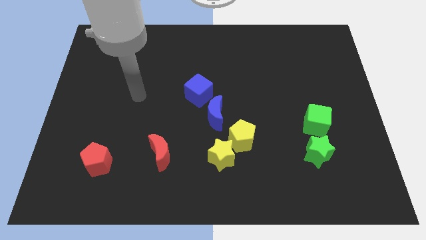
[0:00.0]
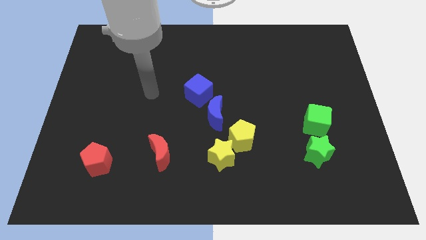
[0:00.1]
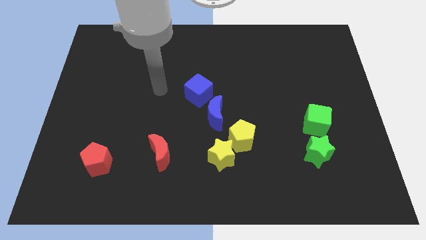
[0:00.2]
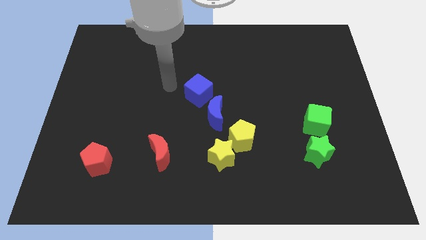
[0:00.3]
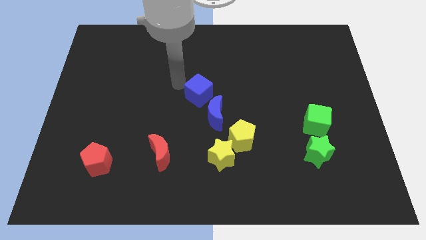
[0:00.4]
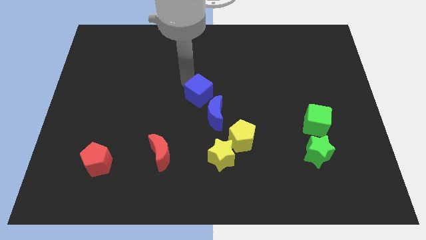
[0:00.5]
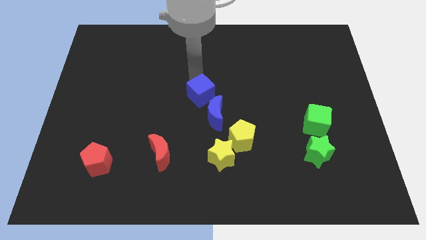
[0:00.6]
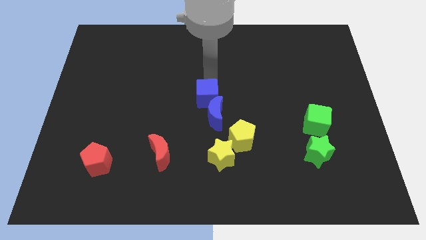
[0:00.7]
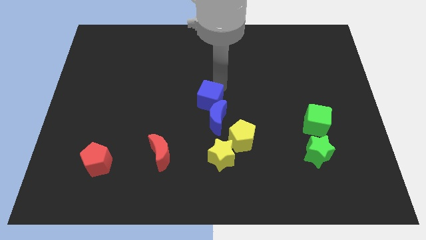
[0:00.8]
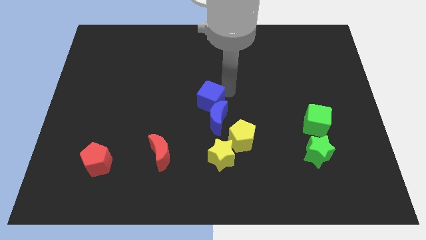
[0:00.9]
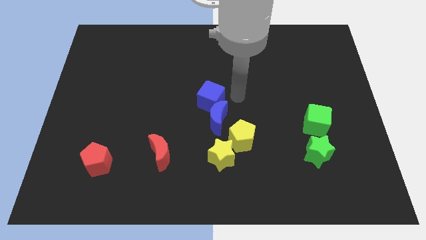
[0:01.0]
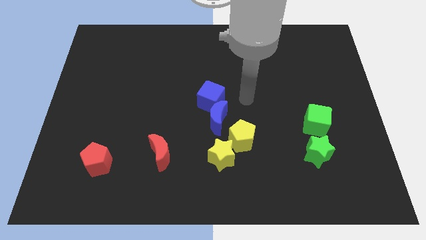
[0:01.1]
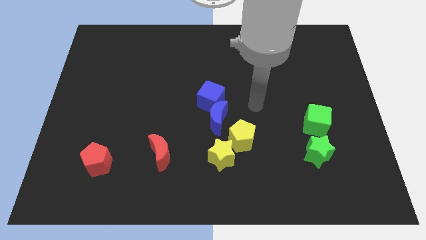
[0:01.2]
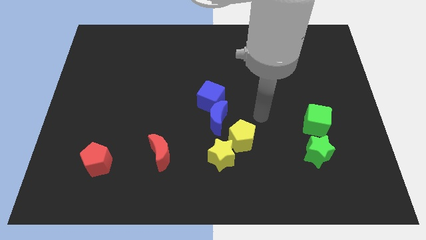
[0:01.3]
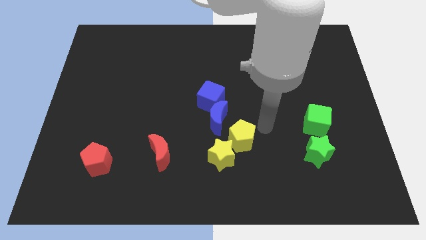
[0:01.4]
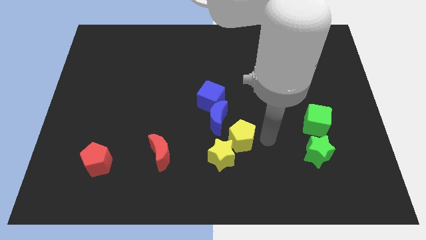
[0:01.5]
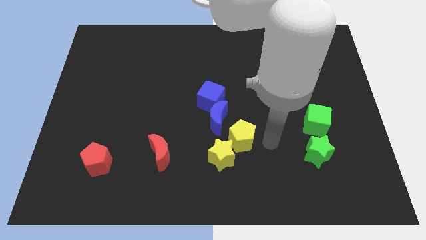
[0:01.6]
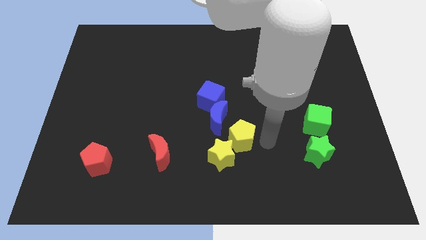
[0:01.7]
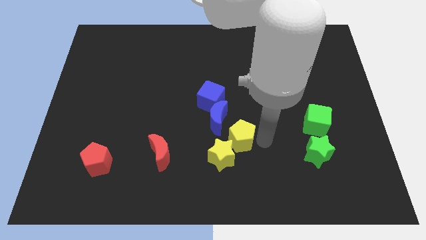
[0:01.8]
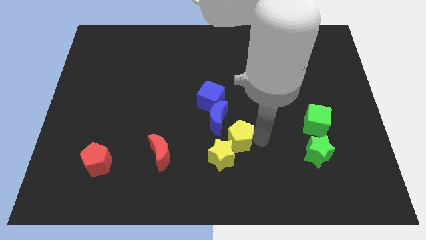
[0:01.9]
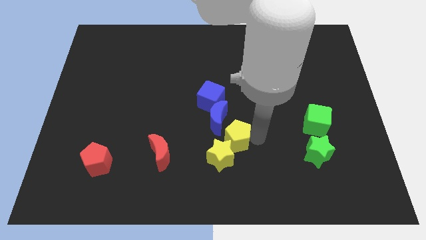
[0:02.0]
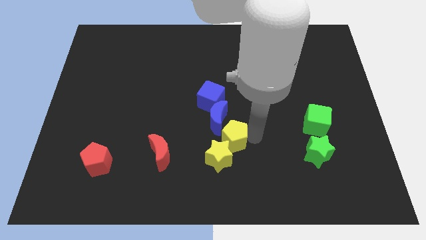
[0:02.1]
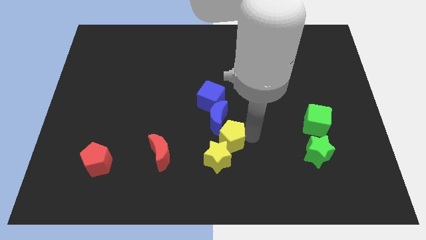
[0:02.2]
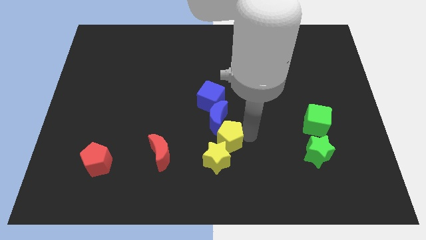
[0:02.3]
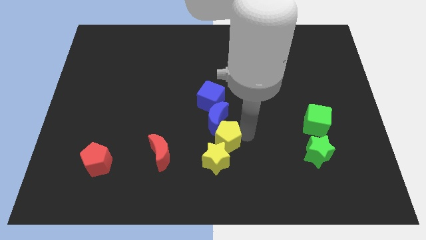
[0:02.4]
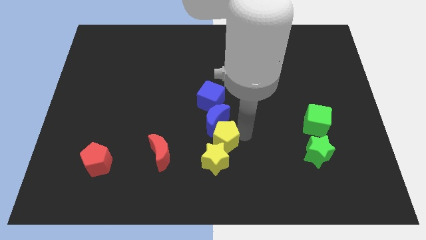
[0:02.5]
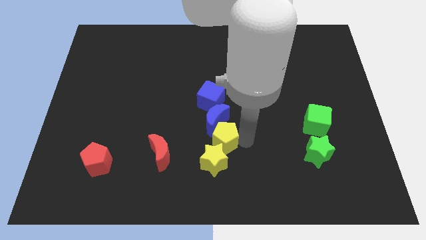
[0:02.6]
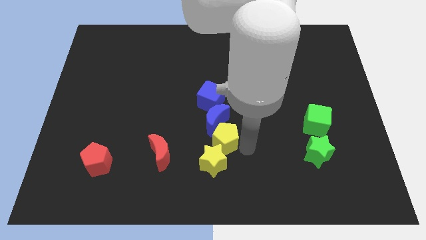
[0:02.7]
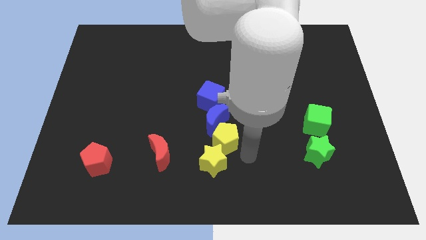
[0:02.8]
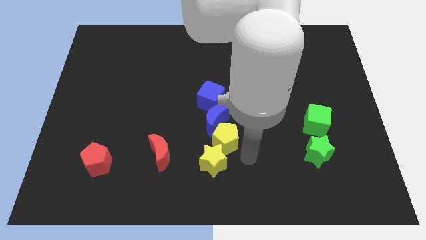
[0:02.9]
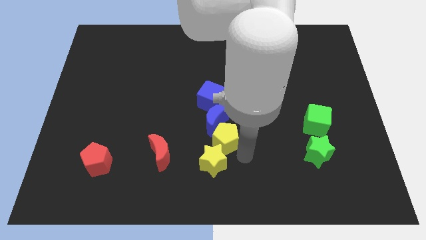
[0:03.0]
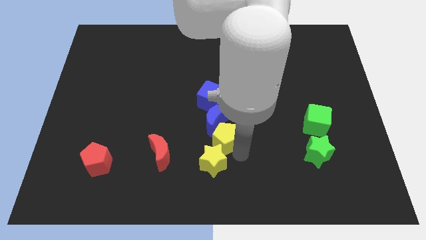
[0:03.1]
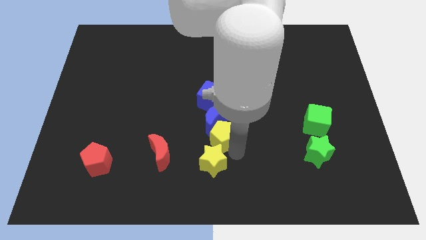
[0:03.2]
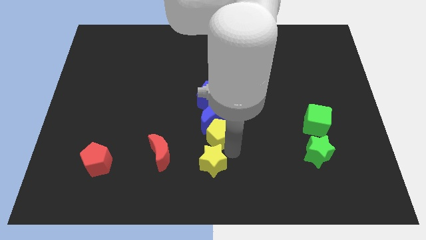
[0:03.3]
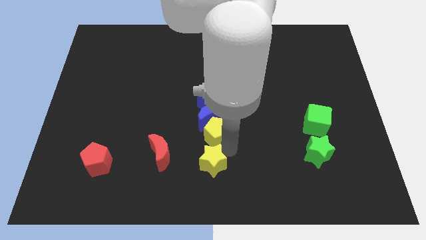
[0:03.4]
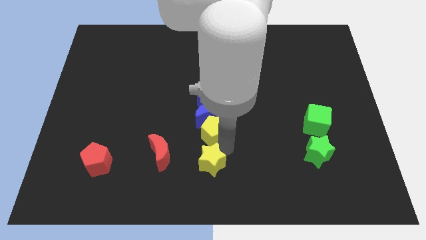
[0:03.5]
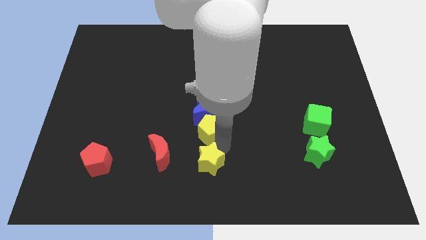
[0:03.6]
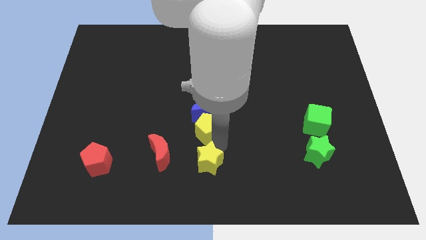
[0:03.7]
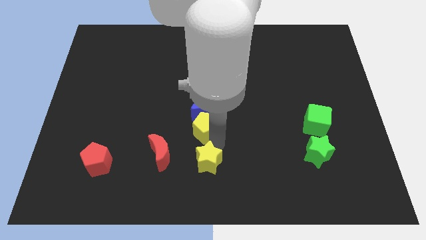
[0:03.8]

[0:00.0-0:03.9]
slide the yellow pentagon slightly upwards and to the left diagonally

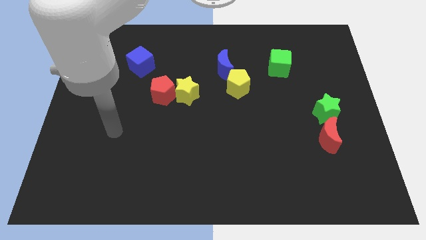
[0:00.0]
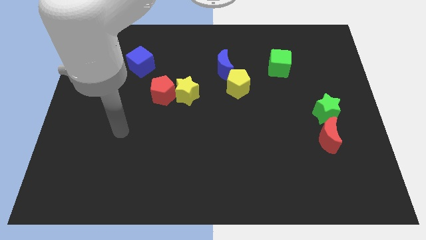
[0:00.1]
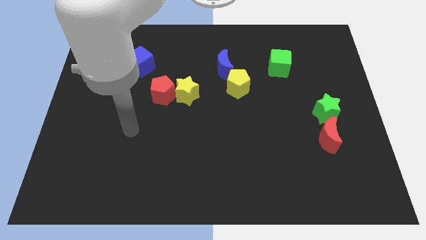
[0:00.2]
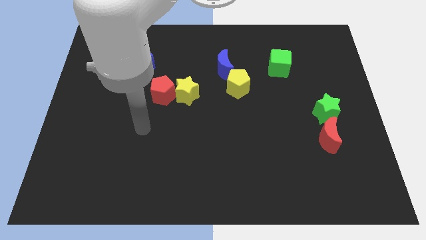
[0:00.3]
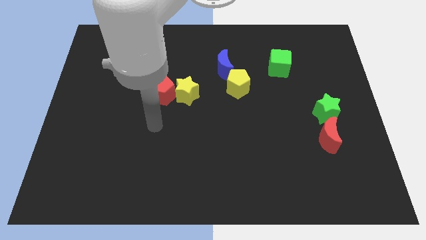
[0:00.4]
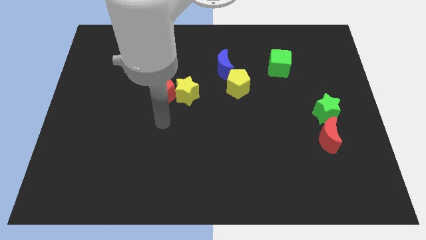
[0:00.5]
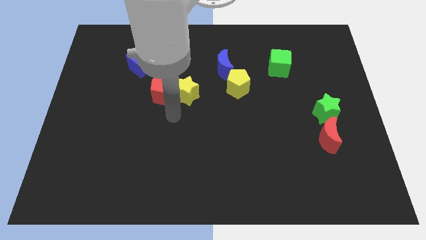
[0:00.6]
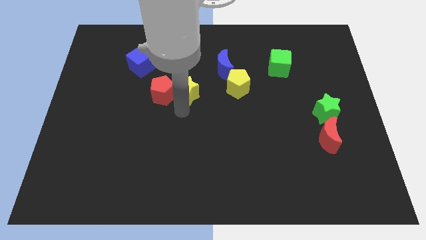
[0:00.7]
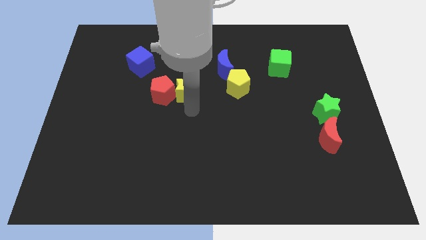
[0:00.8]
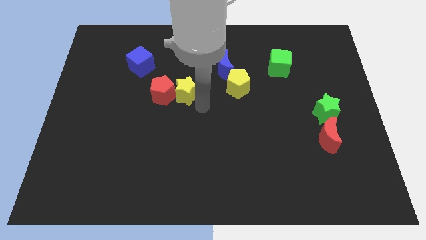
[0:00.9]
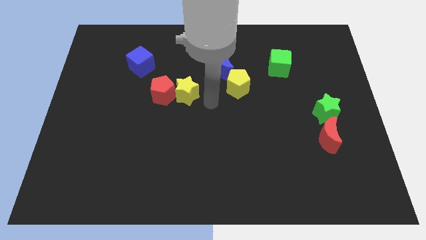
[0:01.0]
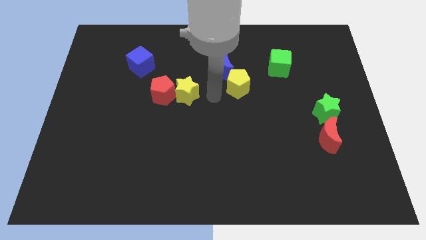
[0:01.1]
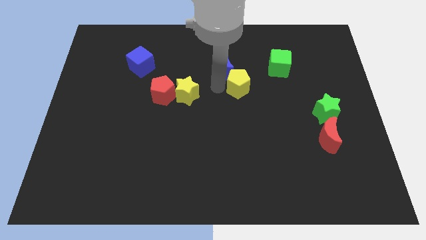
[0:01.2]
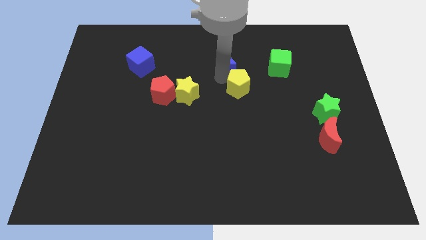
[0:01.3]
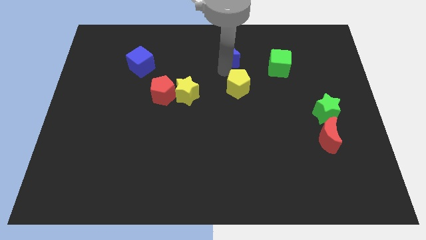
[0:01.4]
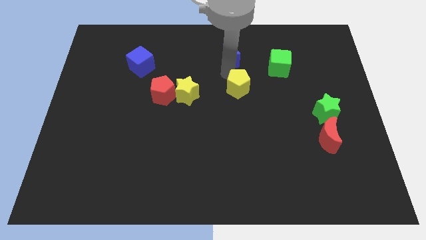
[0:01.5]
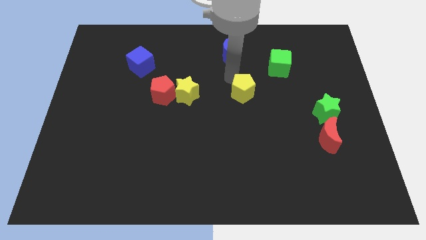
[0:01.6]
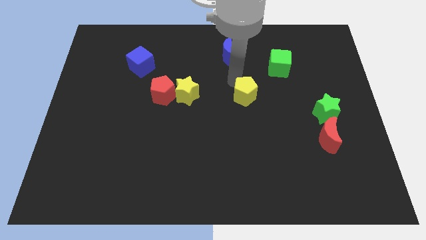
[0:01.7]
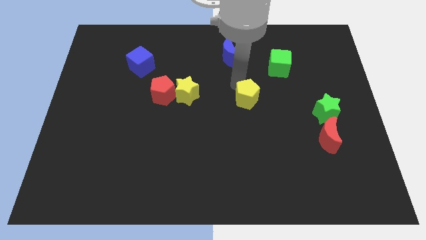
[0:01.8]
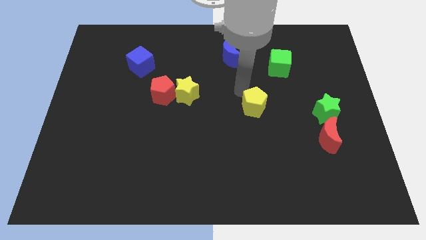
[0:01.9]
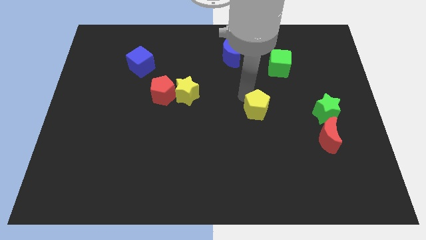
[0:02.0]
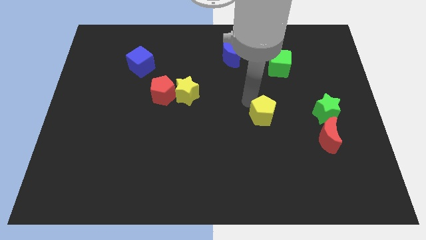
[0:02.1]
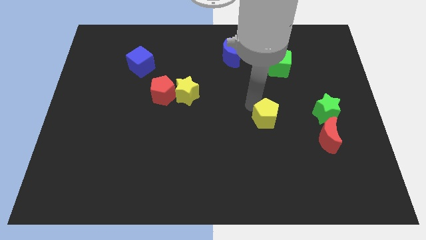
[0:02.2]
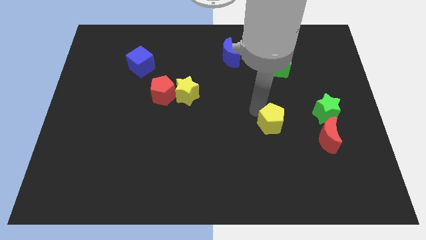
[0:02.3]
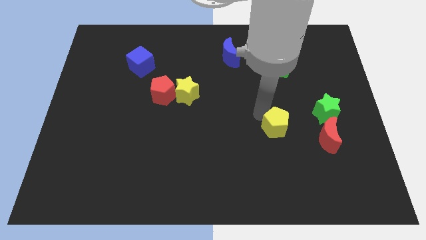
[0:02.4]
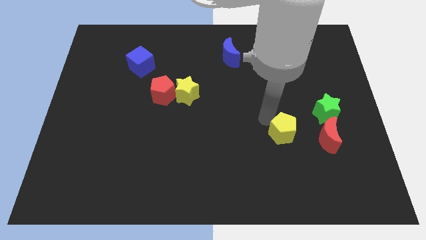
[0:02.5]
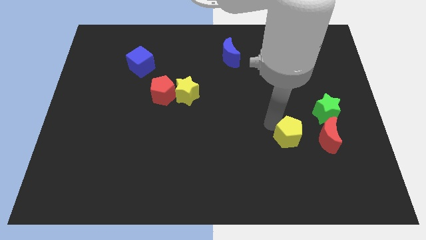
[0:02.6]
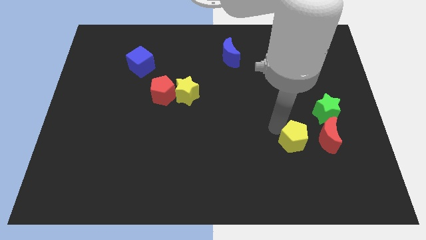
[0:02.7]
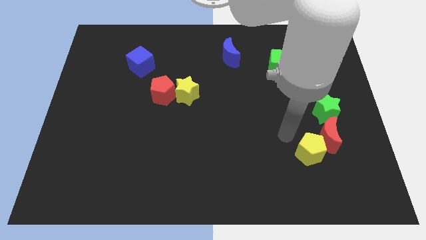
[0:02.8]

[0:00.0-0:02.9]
move the yellow pentagon diagonally downwards and to the right

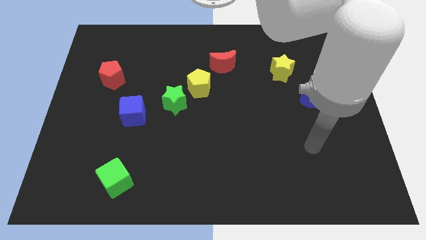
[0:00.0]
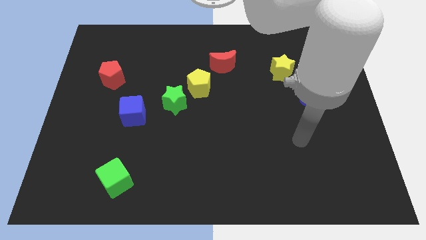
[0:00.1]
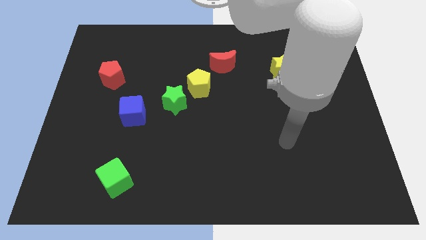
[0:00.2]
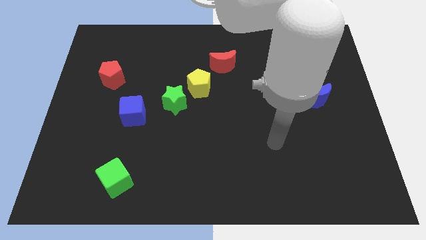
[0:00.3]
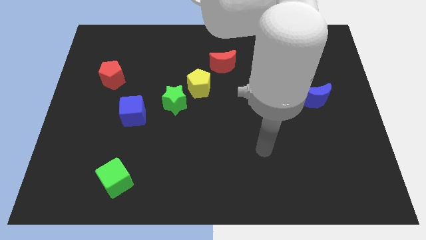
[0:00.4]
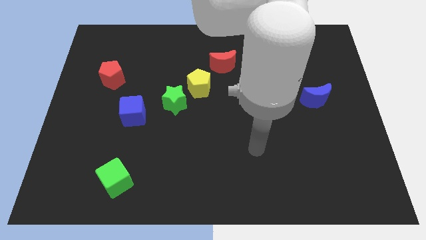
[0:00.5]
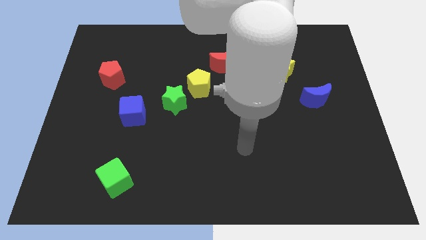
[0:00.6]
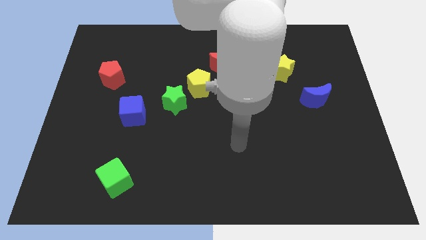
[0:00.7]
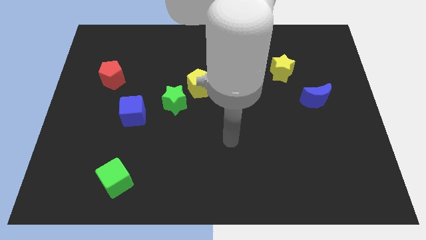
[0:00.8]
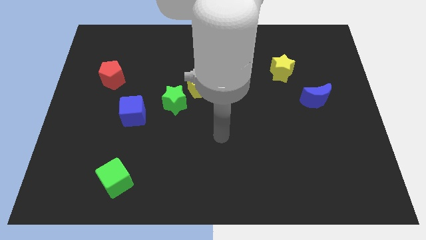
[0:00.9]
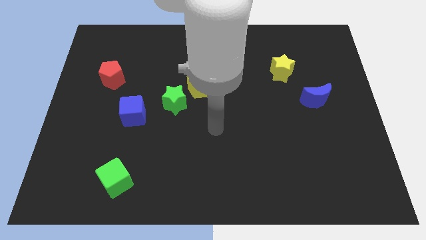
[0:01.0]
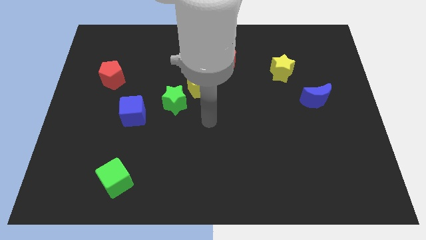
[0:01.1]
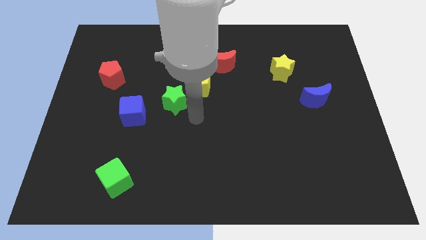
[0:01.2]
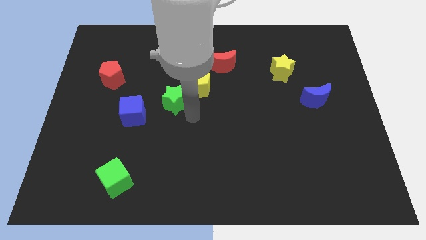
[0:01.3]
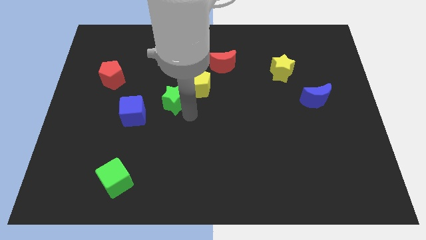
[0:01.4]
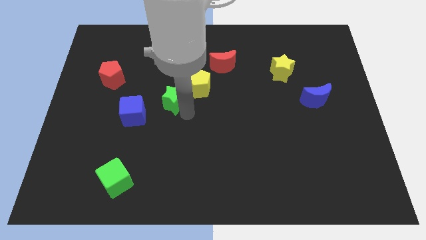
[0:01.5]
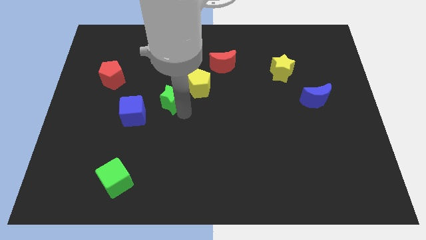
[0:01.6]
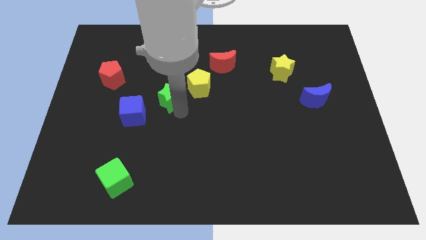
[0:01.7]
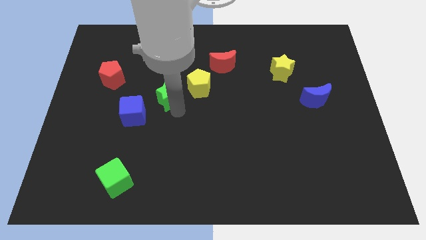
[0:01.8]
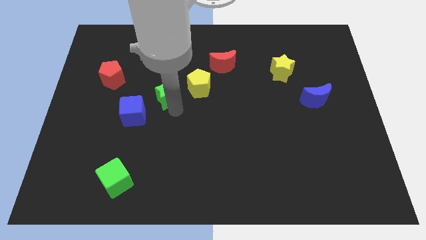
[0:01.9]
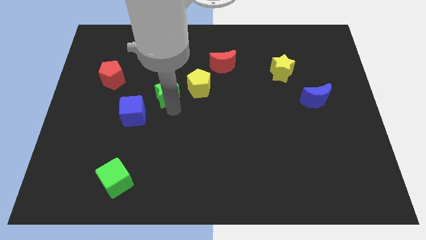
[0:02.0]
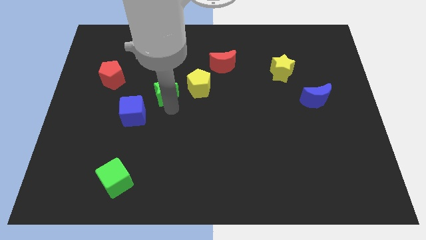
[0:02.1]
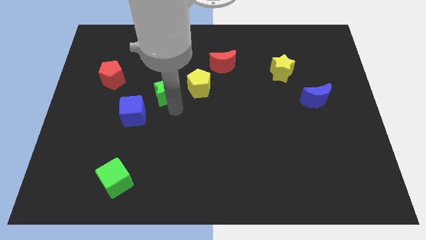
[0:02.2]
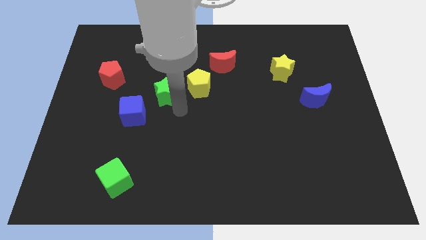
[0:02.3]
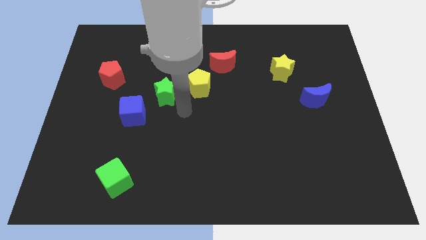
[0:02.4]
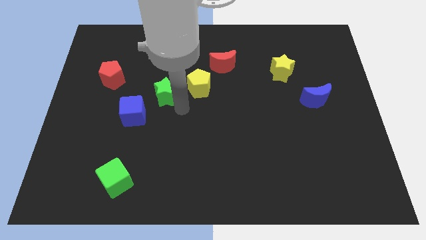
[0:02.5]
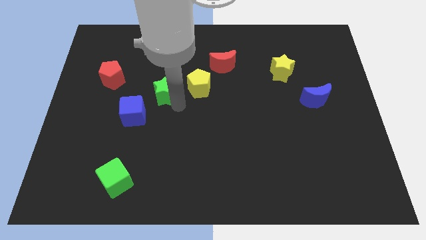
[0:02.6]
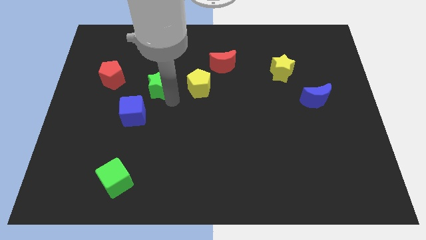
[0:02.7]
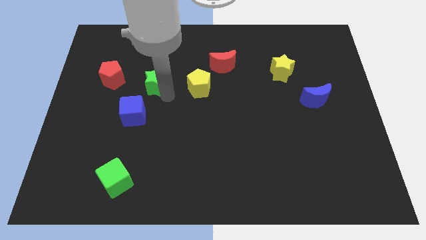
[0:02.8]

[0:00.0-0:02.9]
slide the green star up and to the left diagonally a little
